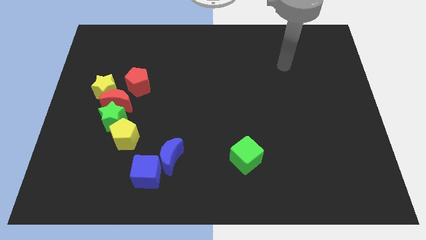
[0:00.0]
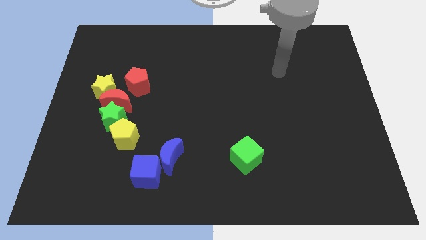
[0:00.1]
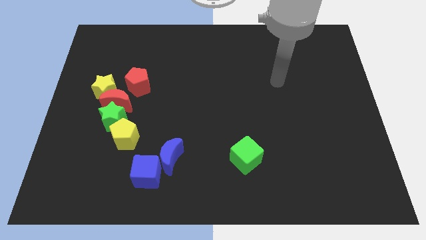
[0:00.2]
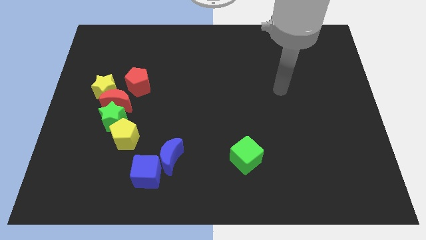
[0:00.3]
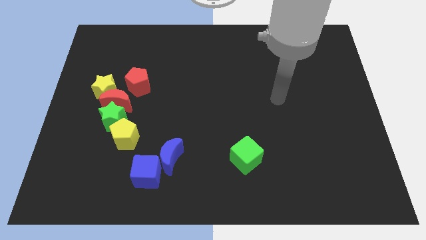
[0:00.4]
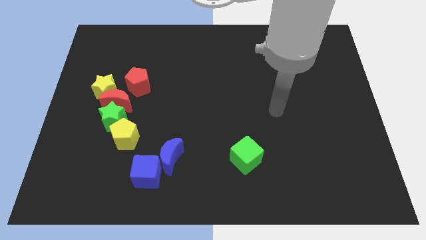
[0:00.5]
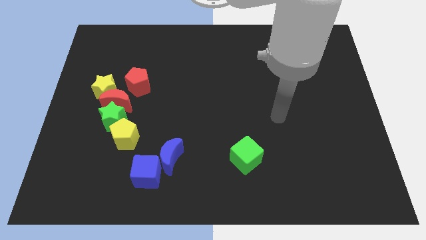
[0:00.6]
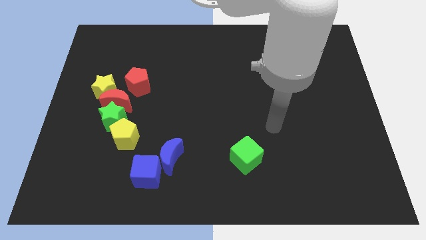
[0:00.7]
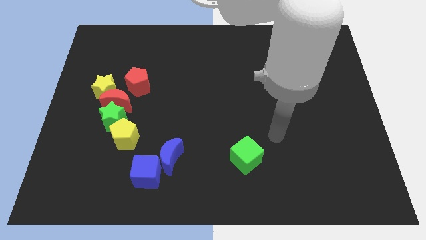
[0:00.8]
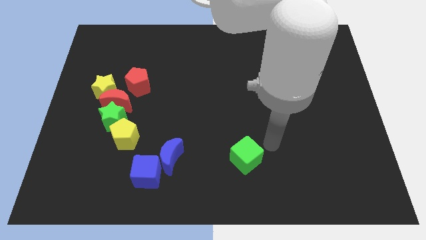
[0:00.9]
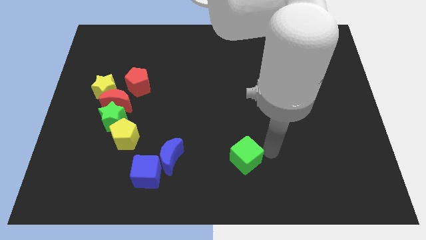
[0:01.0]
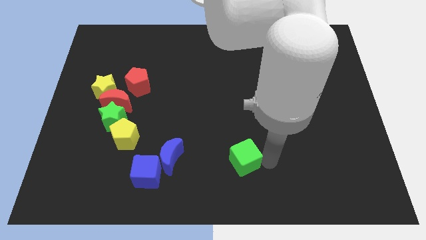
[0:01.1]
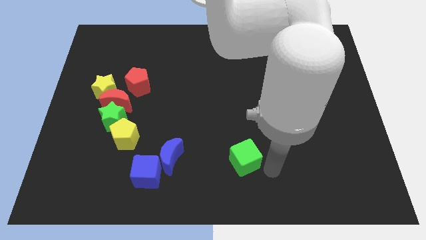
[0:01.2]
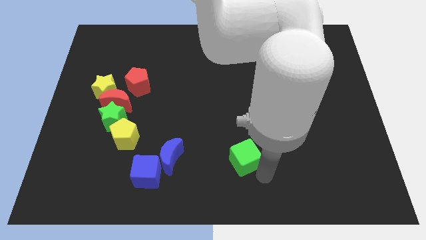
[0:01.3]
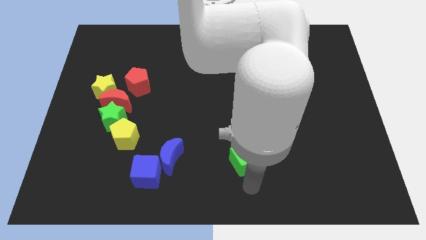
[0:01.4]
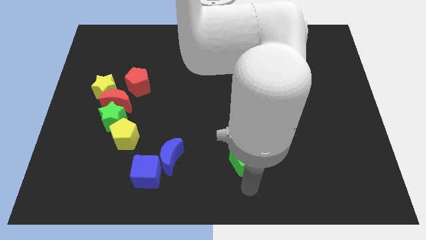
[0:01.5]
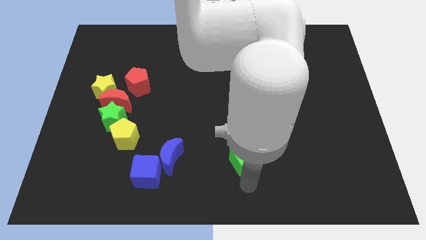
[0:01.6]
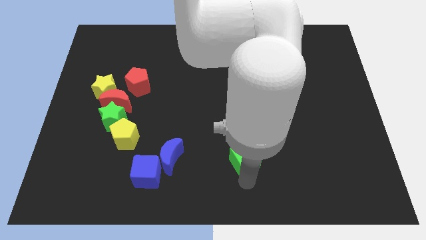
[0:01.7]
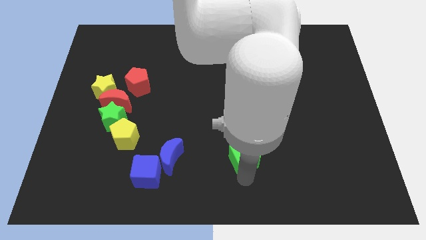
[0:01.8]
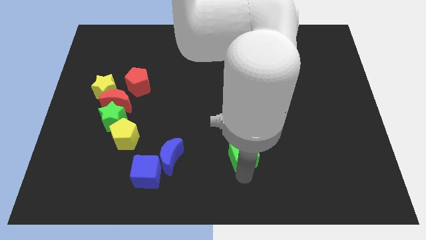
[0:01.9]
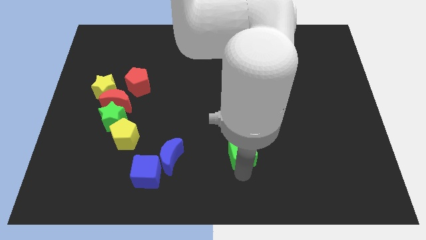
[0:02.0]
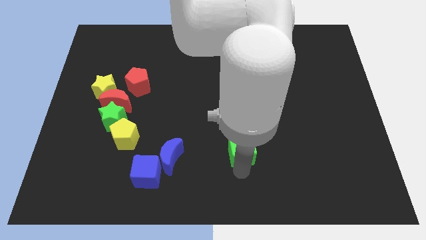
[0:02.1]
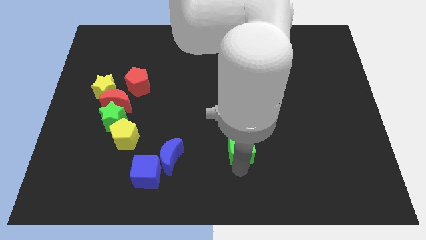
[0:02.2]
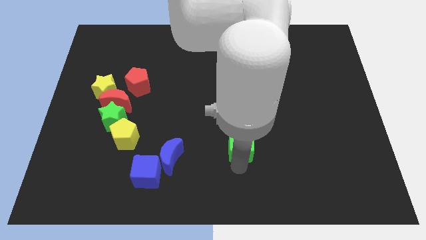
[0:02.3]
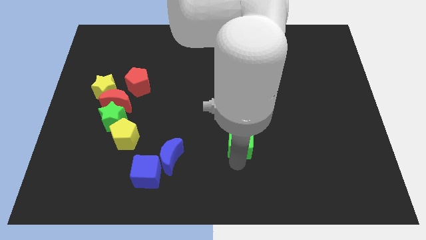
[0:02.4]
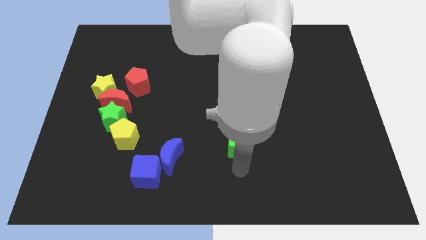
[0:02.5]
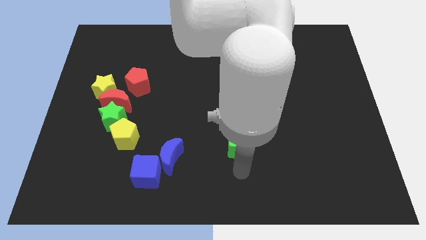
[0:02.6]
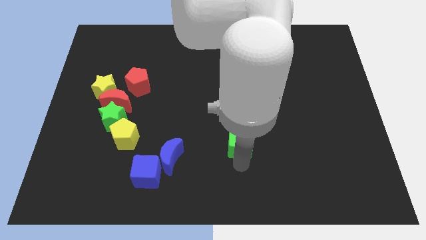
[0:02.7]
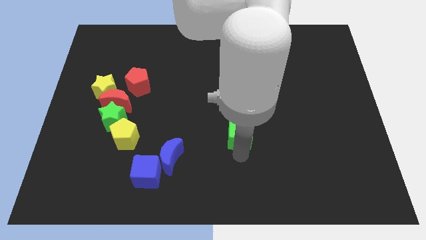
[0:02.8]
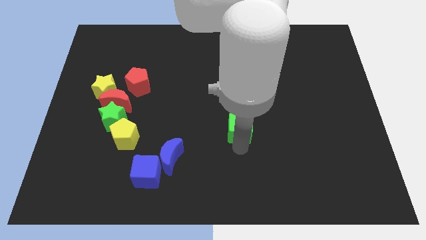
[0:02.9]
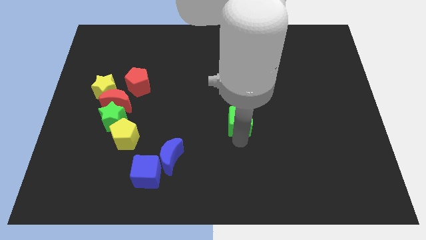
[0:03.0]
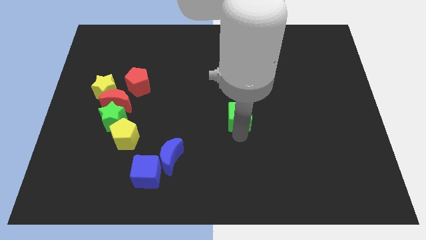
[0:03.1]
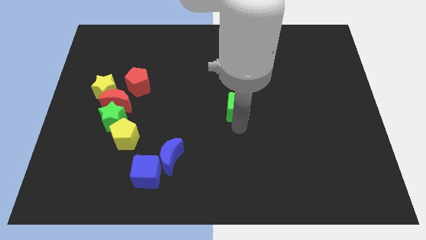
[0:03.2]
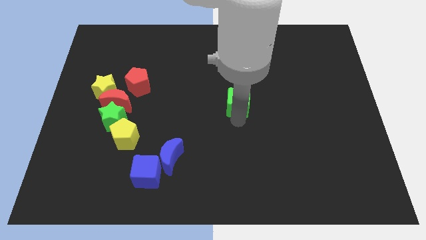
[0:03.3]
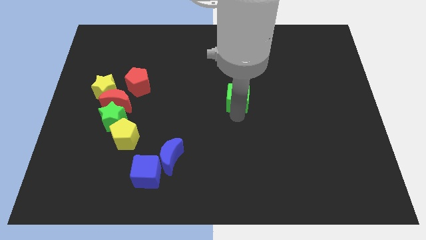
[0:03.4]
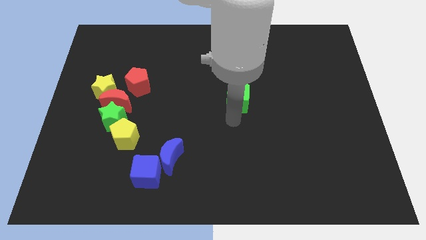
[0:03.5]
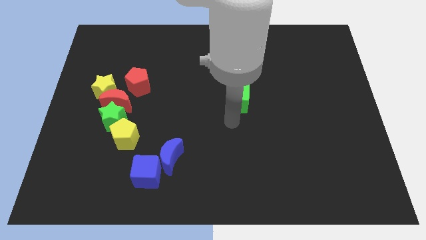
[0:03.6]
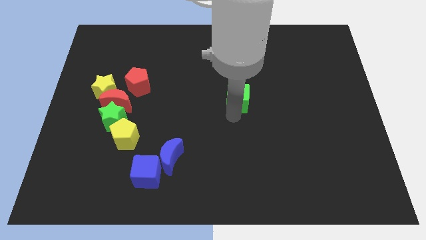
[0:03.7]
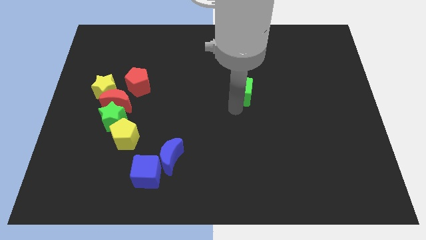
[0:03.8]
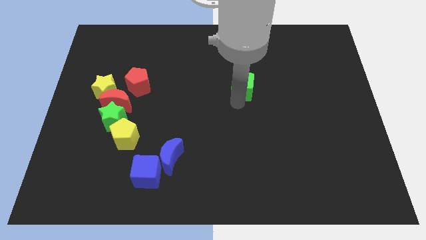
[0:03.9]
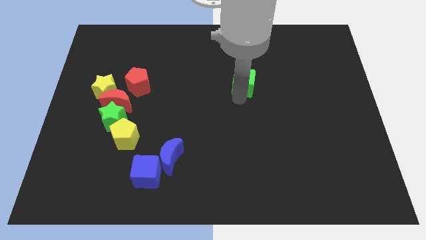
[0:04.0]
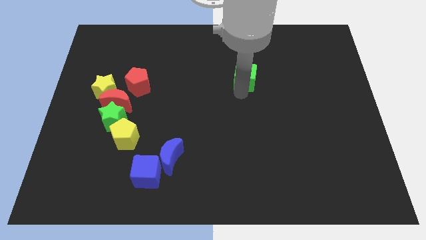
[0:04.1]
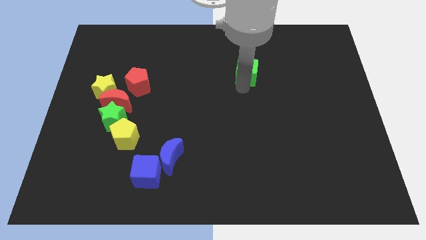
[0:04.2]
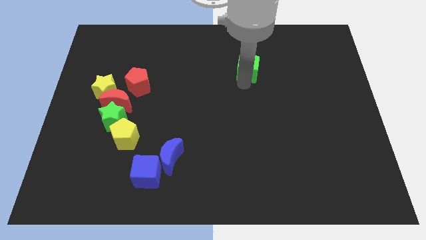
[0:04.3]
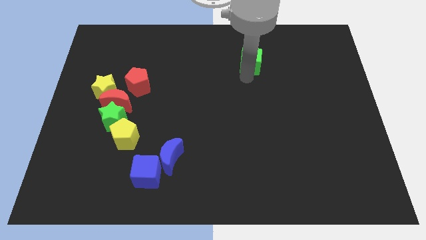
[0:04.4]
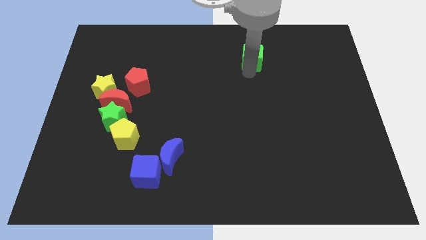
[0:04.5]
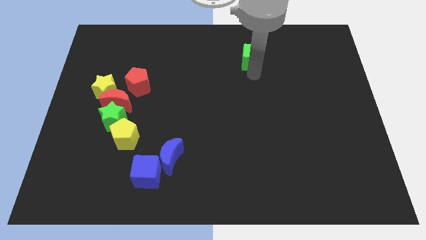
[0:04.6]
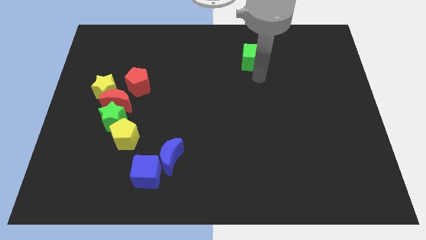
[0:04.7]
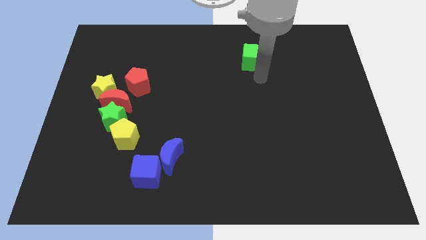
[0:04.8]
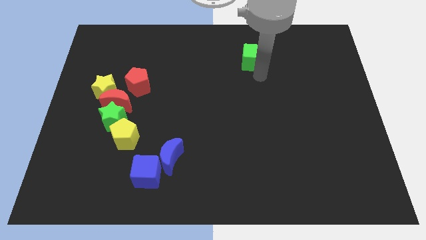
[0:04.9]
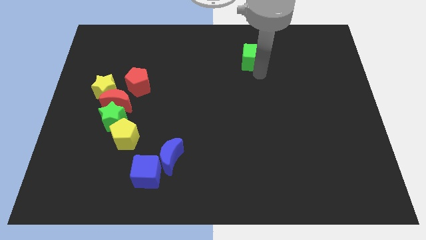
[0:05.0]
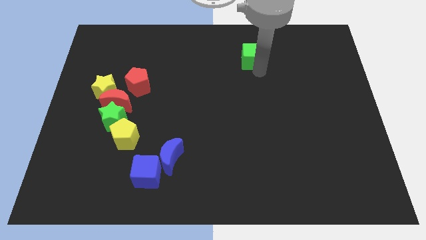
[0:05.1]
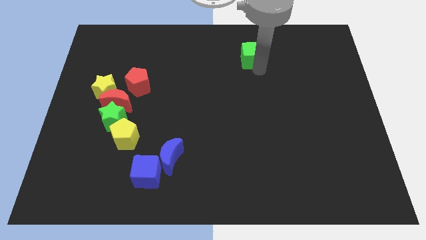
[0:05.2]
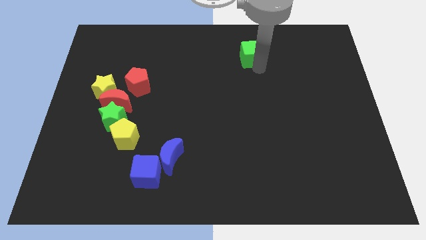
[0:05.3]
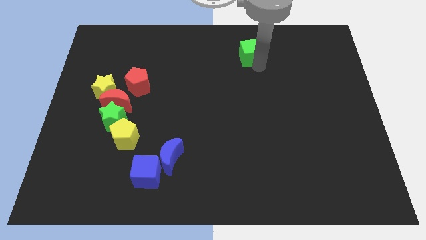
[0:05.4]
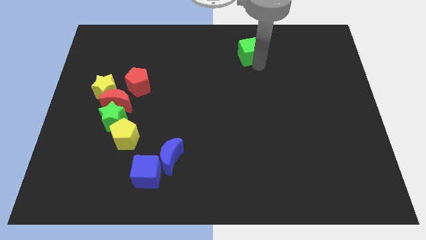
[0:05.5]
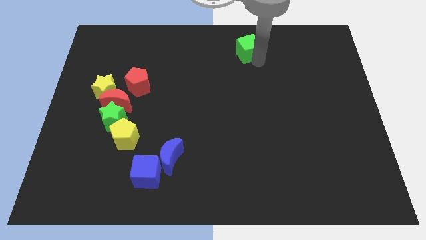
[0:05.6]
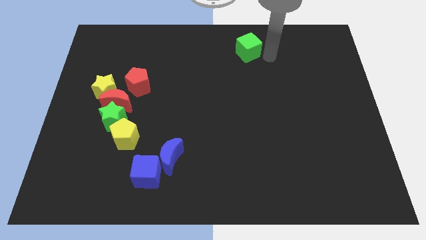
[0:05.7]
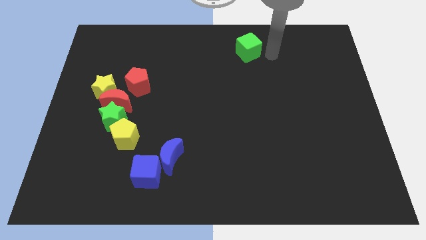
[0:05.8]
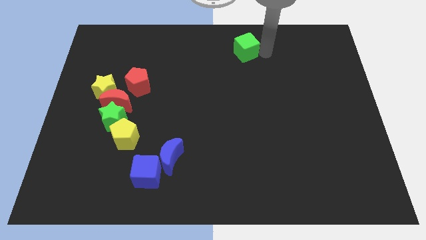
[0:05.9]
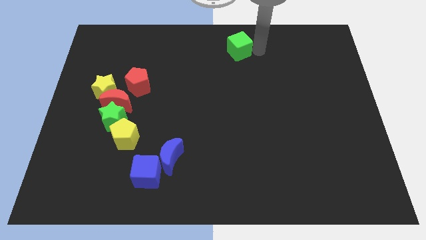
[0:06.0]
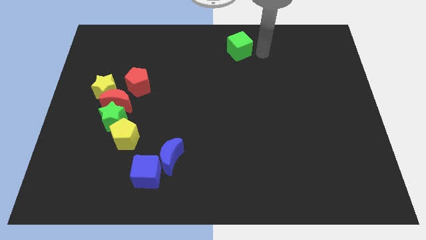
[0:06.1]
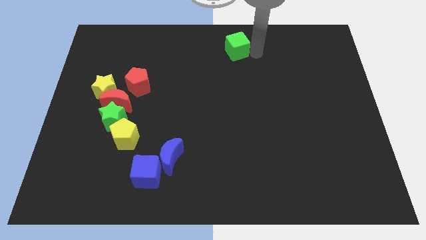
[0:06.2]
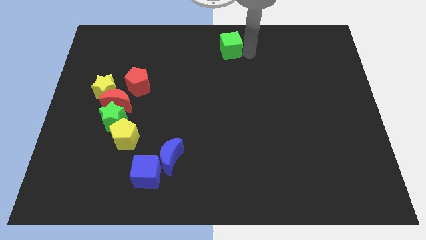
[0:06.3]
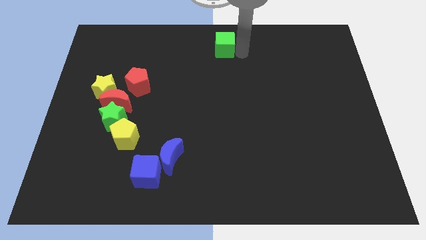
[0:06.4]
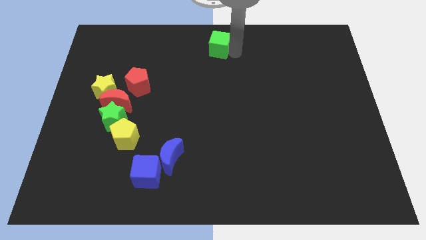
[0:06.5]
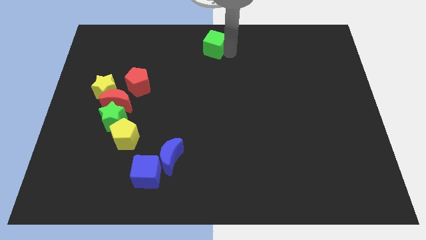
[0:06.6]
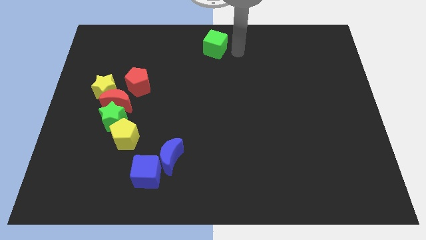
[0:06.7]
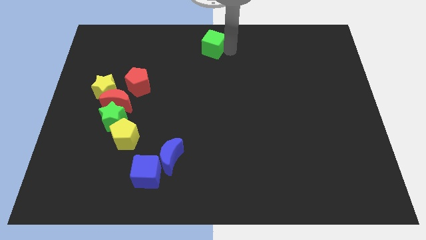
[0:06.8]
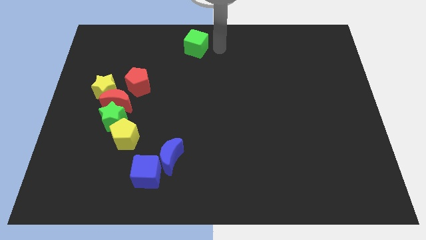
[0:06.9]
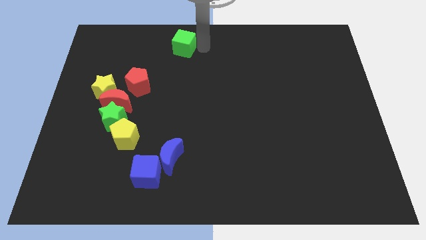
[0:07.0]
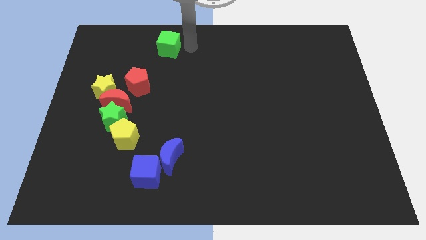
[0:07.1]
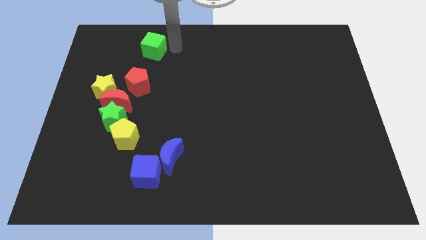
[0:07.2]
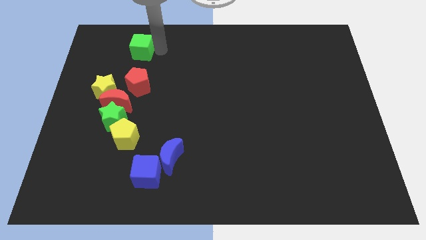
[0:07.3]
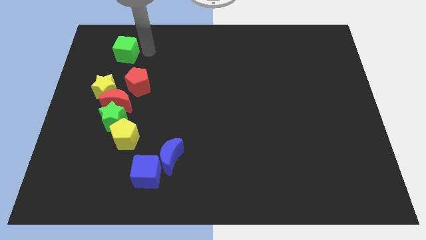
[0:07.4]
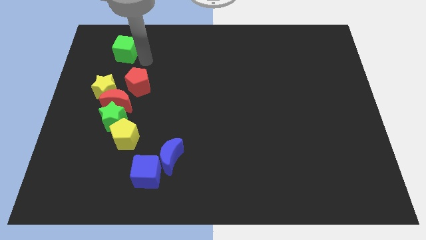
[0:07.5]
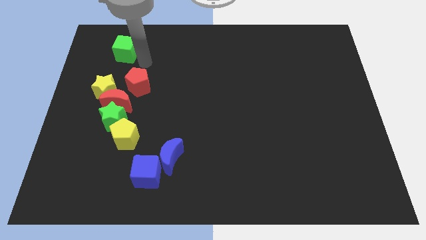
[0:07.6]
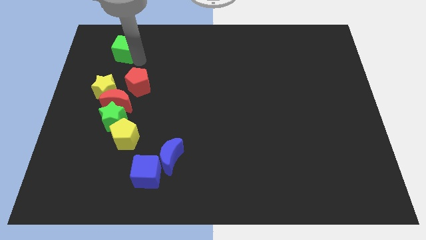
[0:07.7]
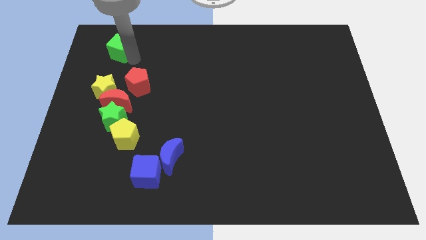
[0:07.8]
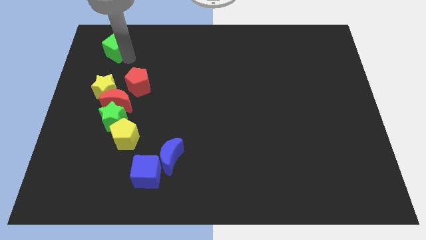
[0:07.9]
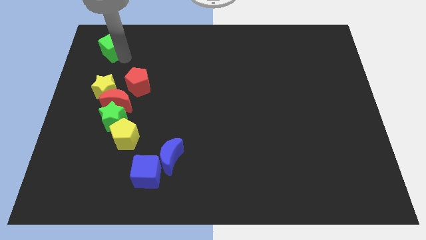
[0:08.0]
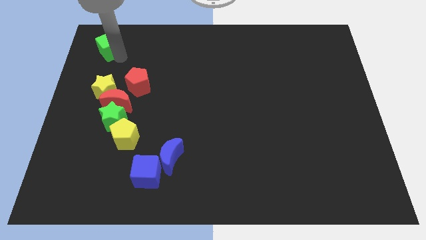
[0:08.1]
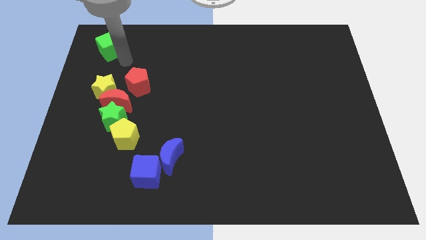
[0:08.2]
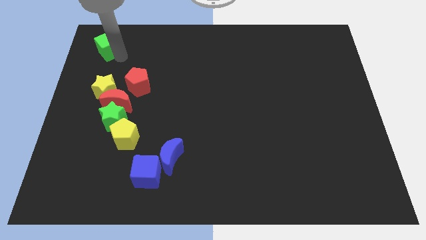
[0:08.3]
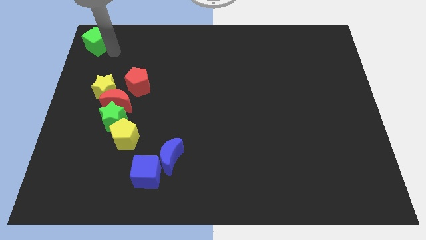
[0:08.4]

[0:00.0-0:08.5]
put the green cube to the top left of the board
